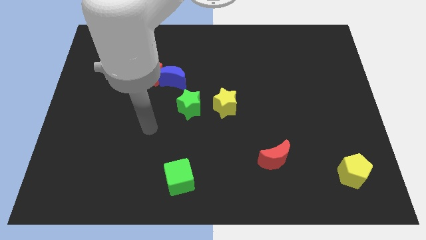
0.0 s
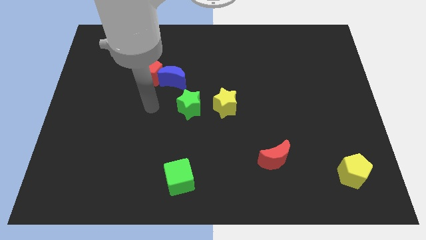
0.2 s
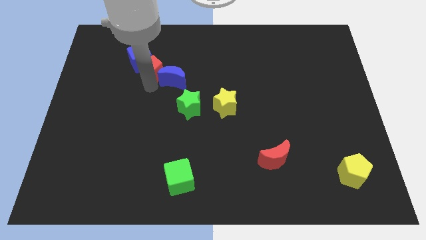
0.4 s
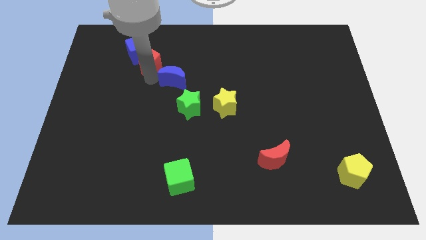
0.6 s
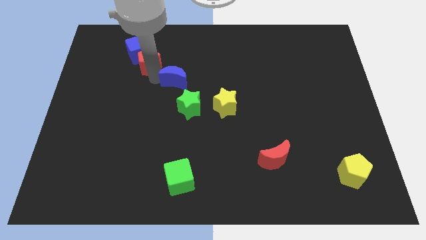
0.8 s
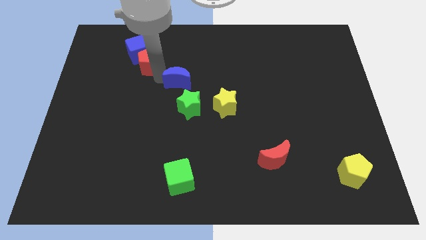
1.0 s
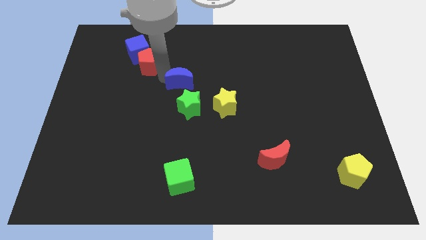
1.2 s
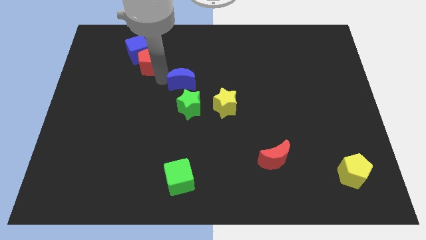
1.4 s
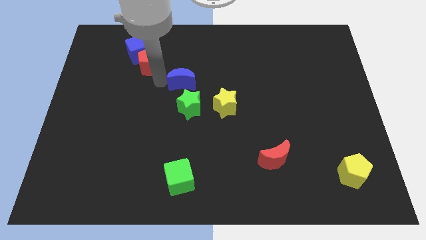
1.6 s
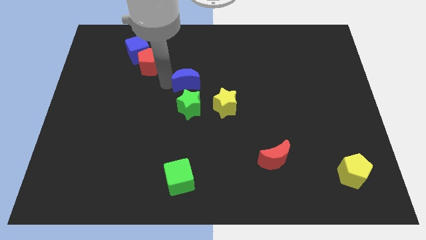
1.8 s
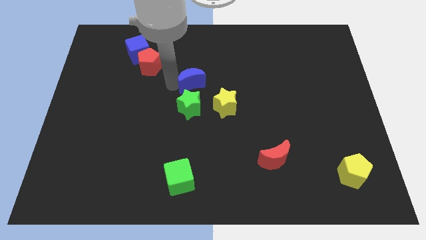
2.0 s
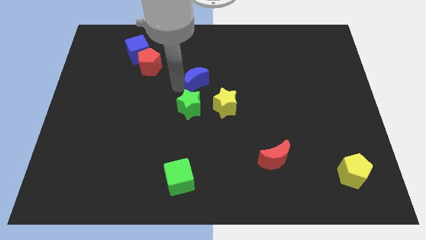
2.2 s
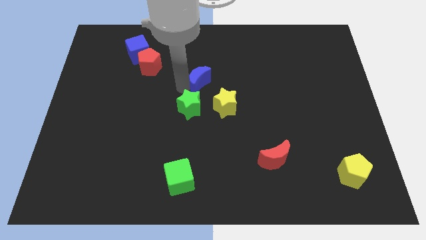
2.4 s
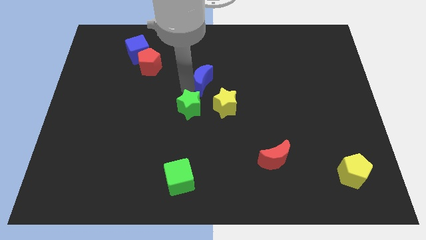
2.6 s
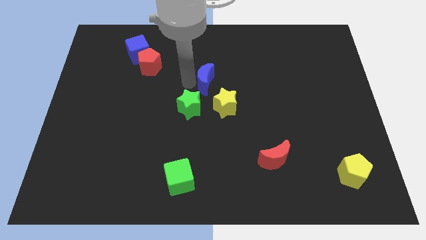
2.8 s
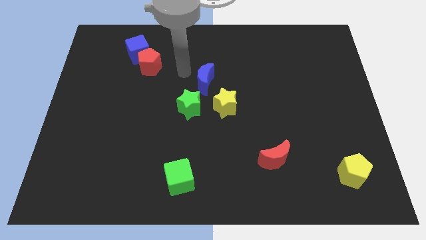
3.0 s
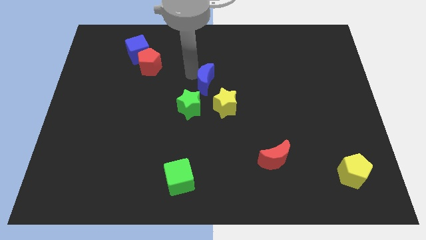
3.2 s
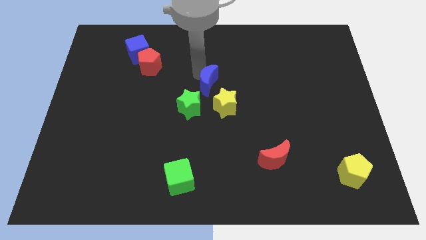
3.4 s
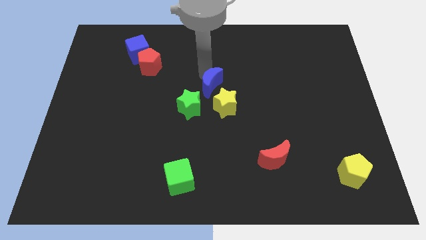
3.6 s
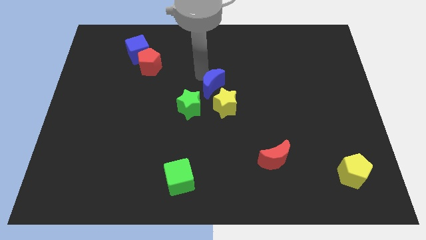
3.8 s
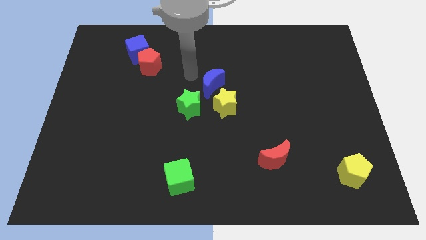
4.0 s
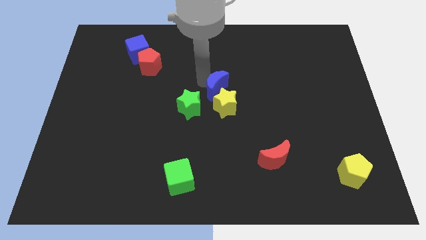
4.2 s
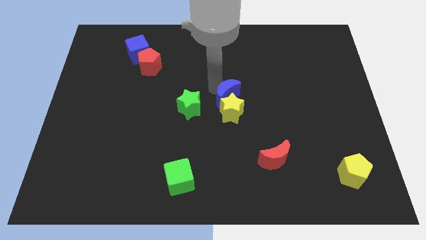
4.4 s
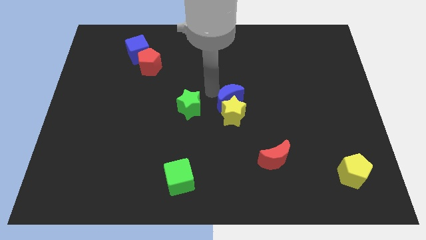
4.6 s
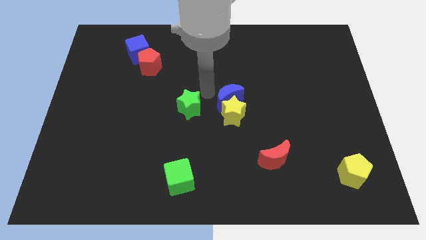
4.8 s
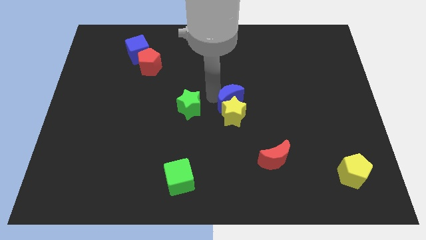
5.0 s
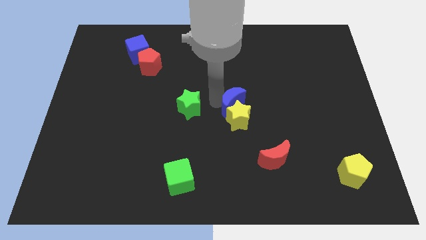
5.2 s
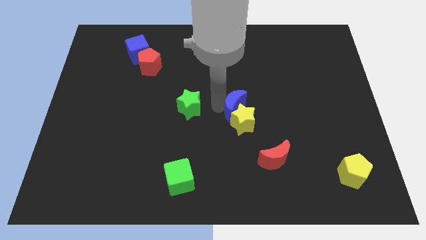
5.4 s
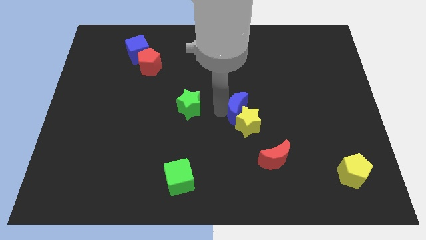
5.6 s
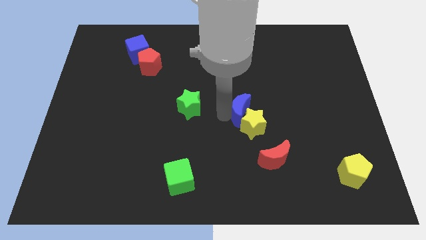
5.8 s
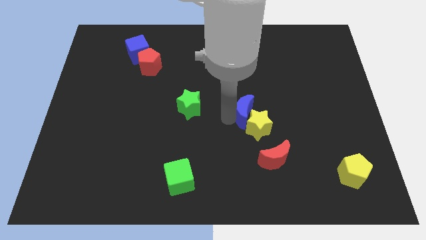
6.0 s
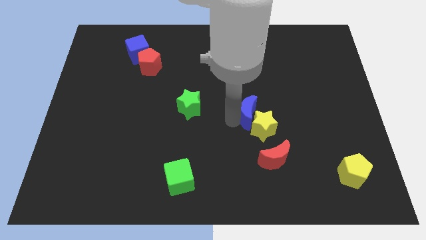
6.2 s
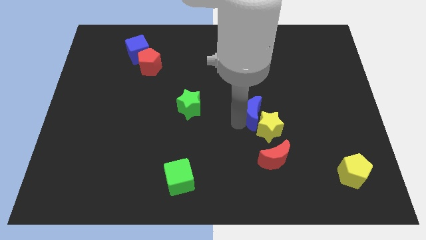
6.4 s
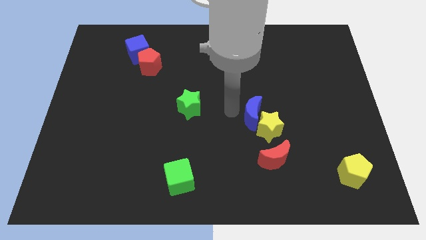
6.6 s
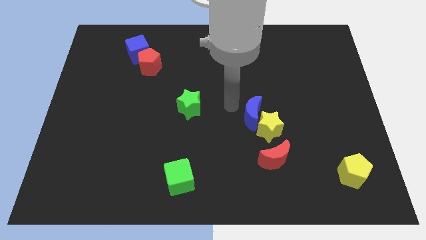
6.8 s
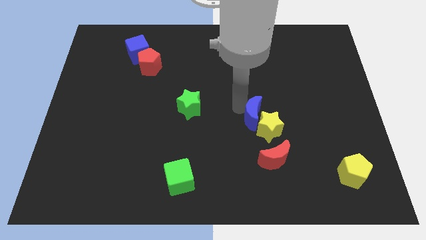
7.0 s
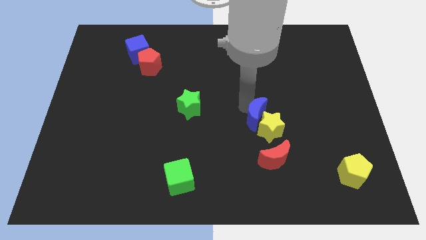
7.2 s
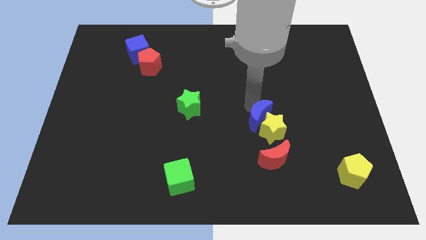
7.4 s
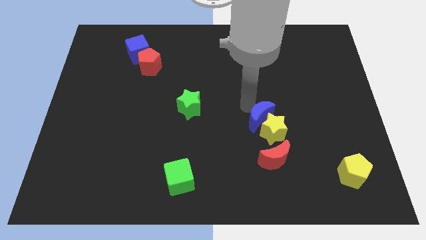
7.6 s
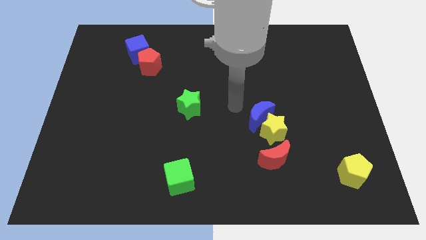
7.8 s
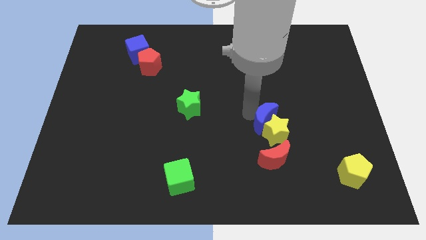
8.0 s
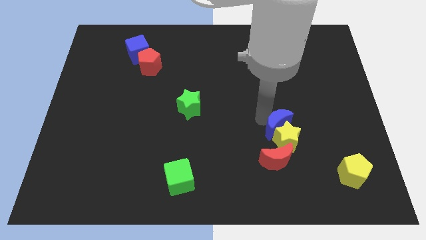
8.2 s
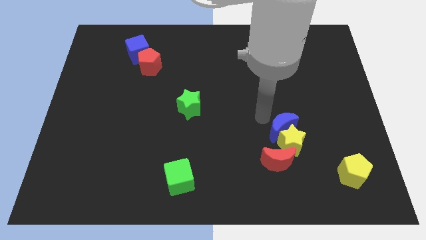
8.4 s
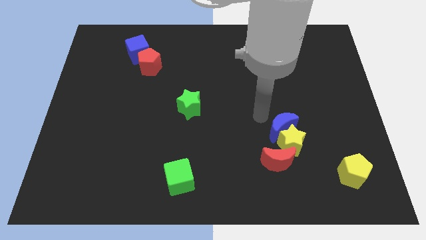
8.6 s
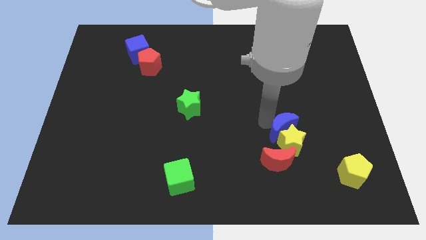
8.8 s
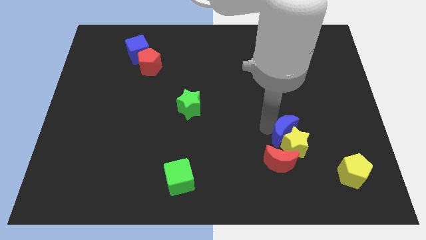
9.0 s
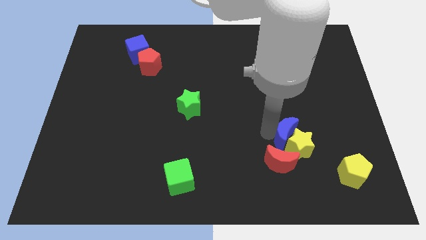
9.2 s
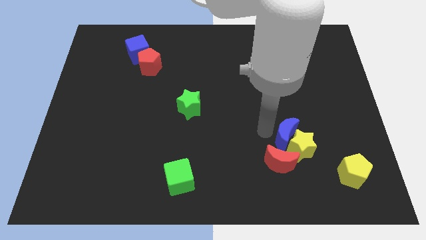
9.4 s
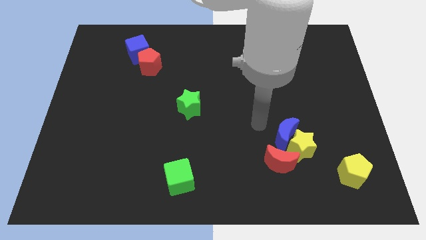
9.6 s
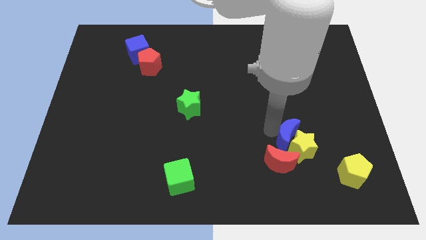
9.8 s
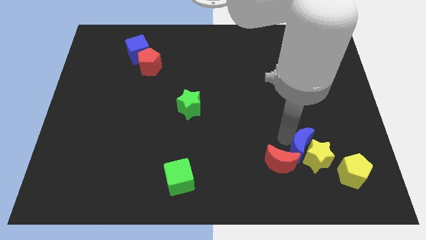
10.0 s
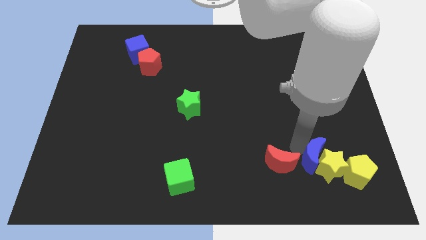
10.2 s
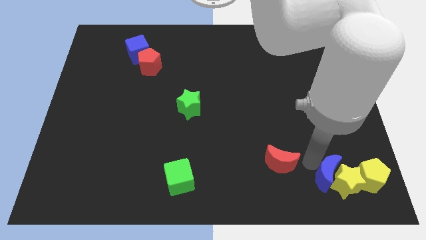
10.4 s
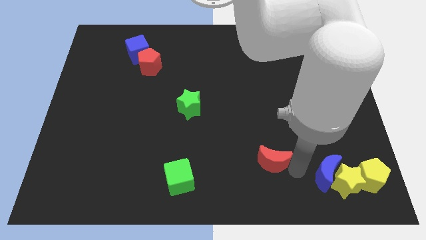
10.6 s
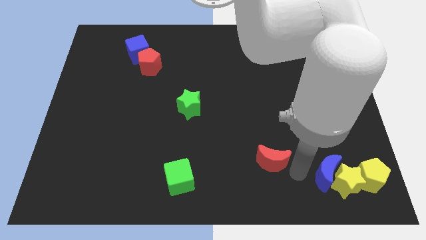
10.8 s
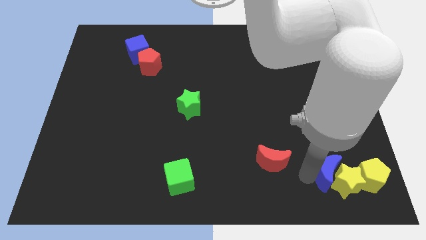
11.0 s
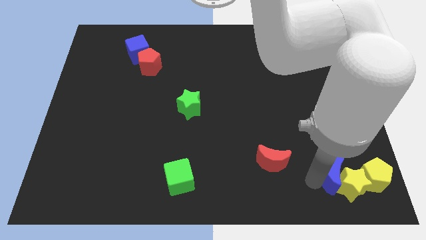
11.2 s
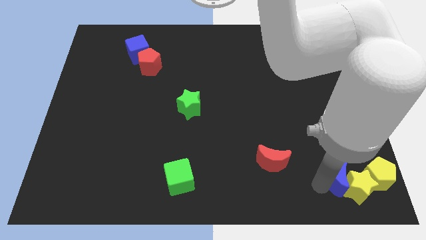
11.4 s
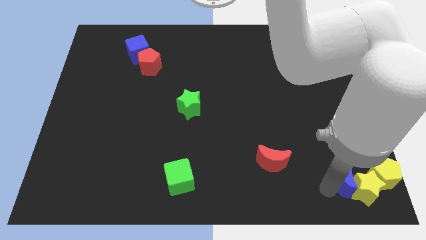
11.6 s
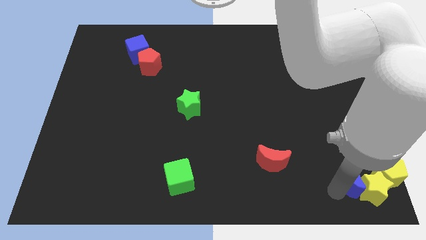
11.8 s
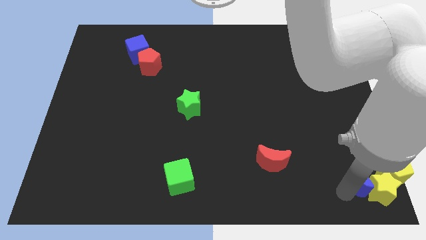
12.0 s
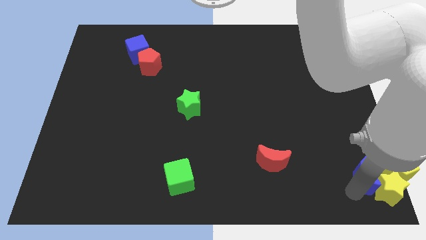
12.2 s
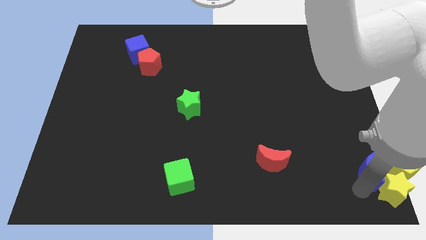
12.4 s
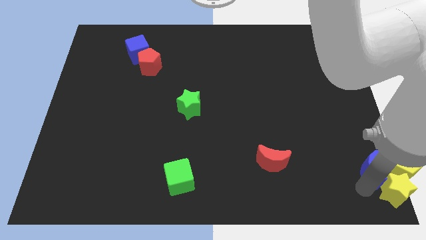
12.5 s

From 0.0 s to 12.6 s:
put the blue moon towards the yellow pentagon

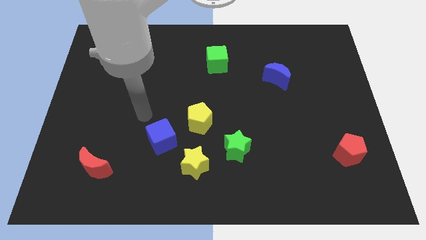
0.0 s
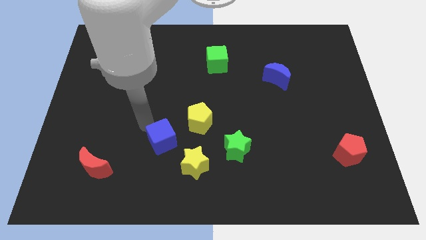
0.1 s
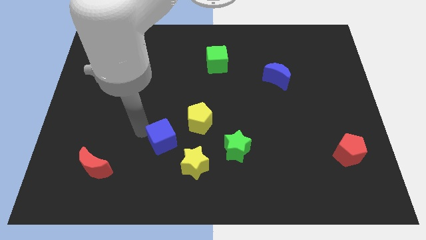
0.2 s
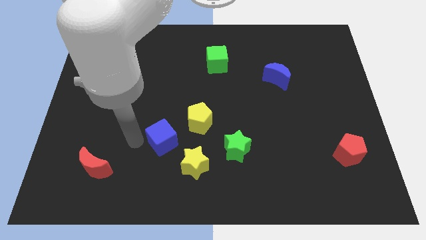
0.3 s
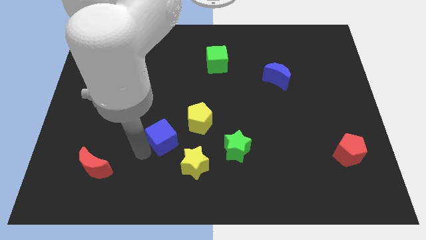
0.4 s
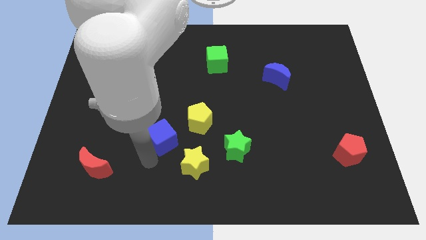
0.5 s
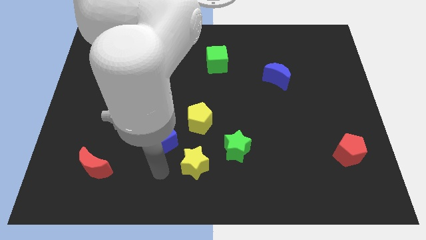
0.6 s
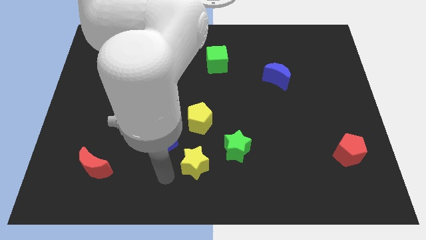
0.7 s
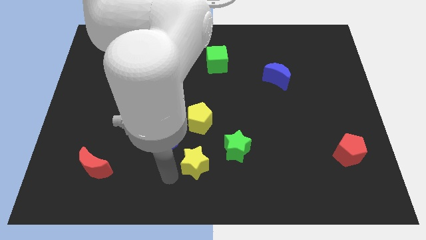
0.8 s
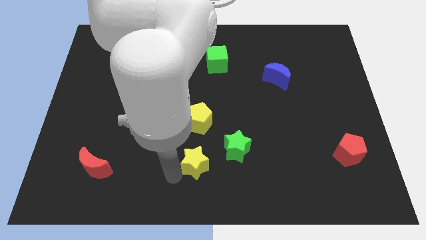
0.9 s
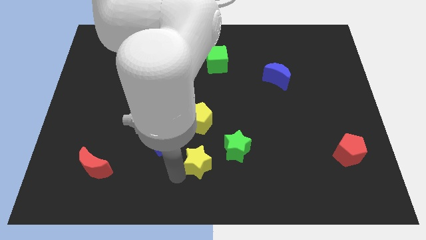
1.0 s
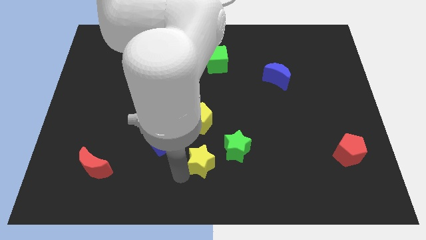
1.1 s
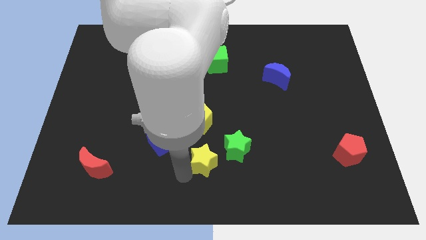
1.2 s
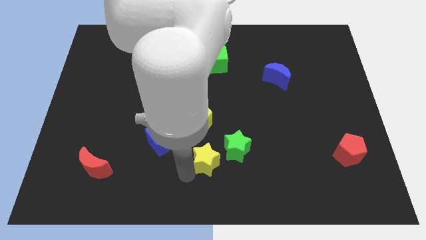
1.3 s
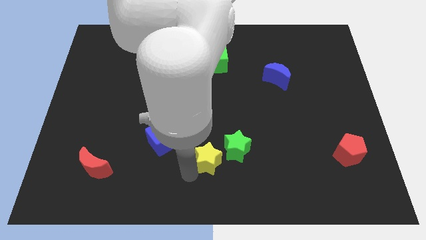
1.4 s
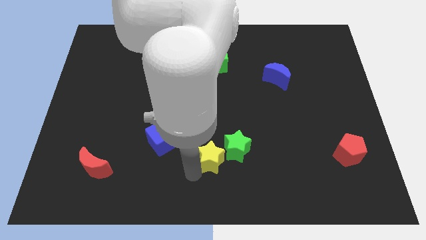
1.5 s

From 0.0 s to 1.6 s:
move the yellow star towards the green star

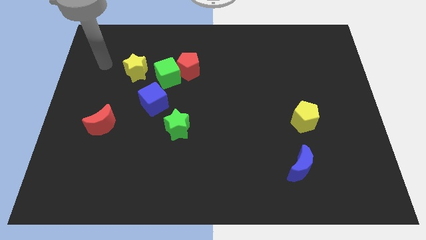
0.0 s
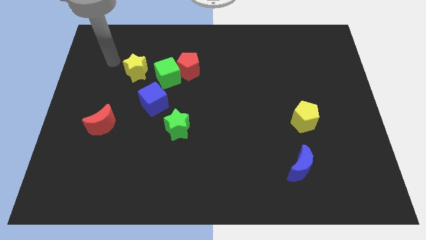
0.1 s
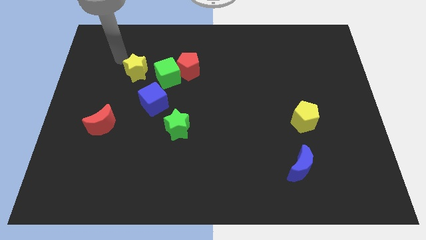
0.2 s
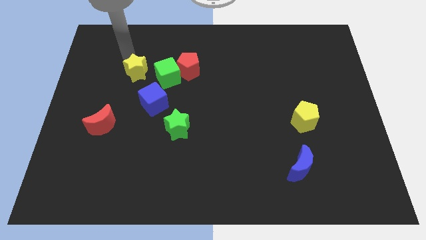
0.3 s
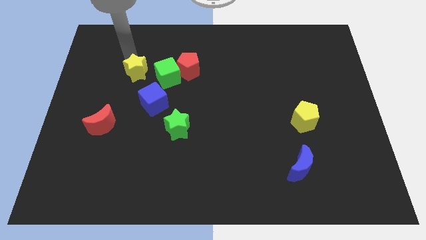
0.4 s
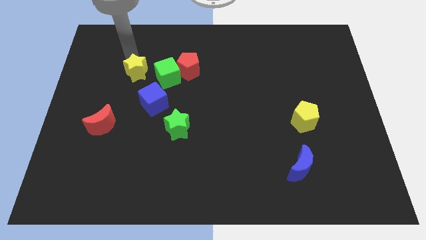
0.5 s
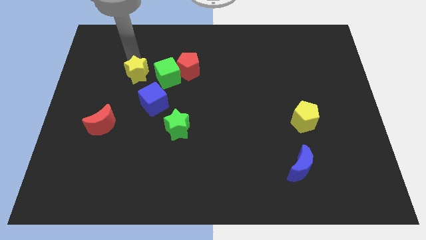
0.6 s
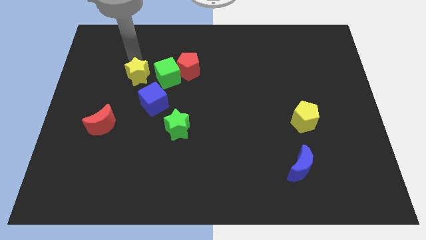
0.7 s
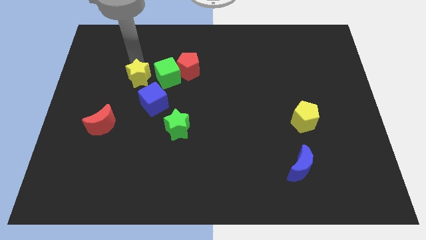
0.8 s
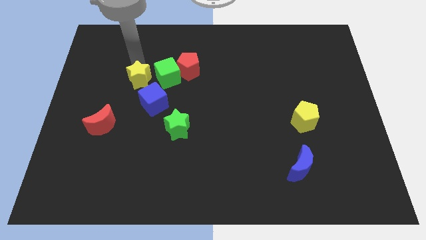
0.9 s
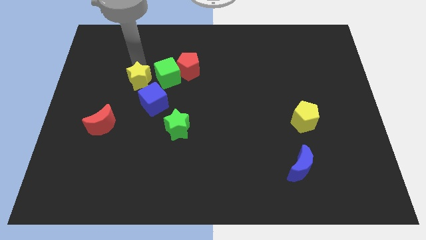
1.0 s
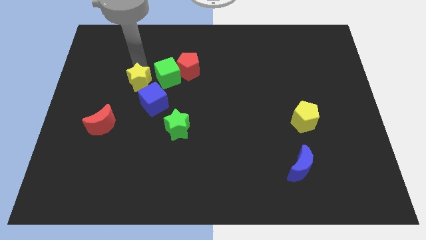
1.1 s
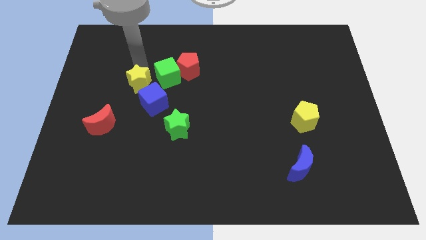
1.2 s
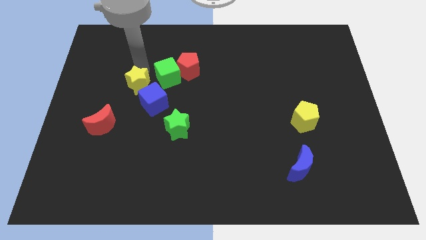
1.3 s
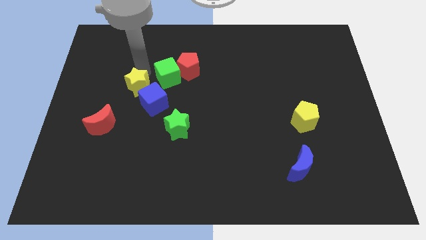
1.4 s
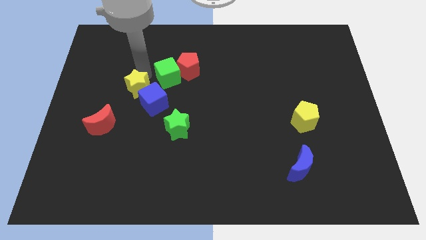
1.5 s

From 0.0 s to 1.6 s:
move the yellow star to the blue cube
